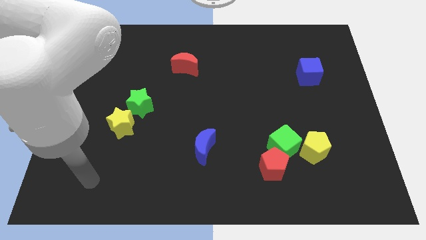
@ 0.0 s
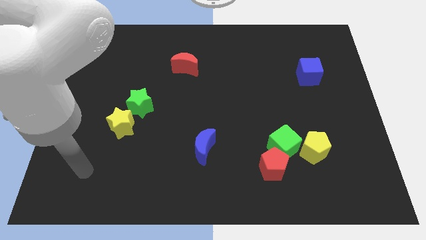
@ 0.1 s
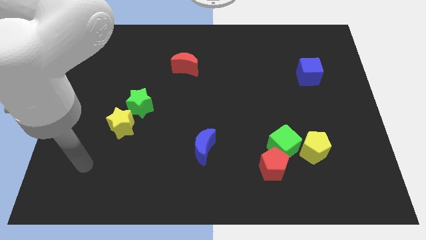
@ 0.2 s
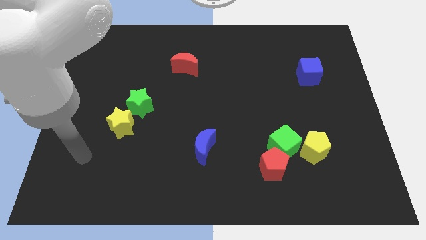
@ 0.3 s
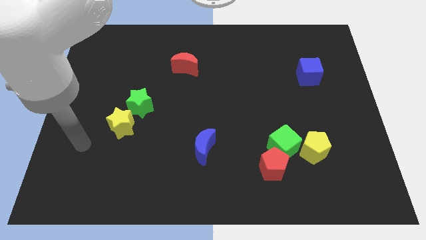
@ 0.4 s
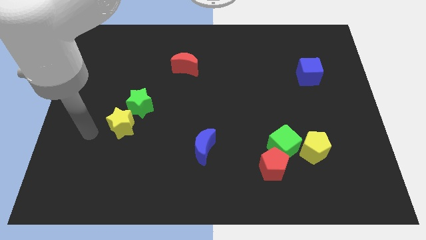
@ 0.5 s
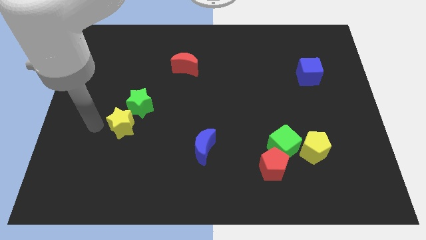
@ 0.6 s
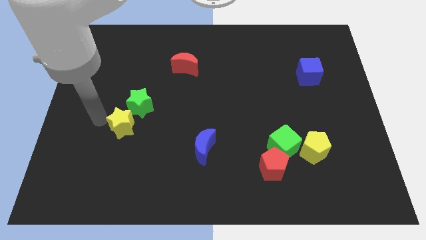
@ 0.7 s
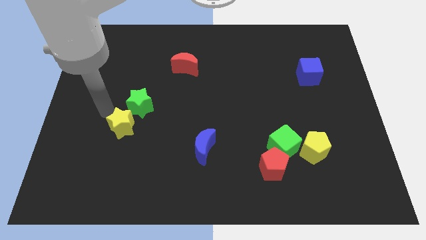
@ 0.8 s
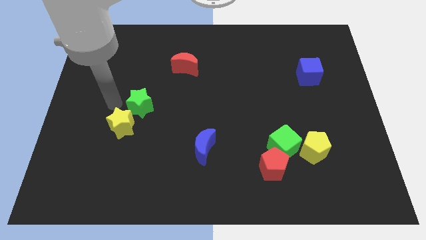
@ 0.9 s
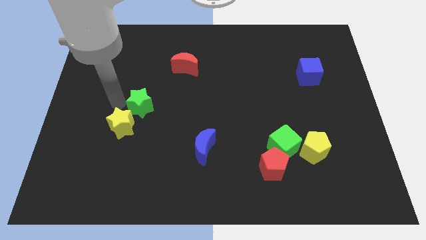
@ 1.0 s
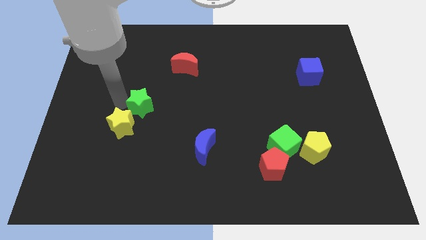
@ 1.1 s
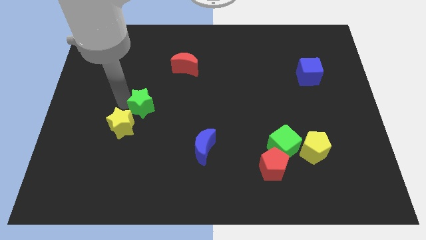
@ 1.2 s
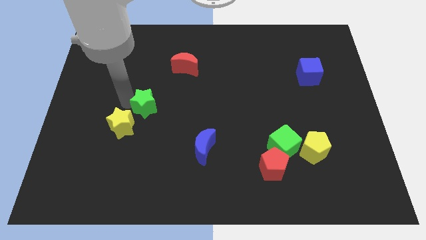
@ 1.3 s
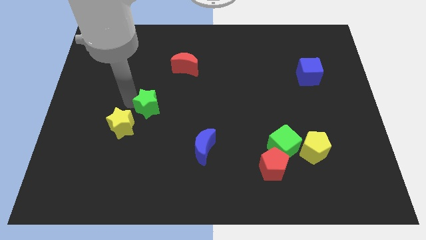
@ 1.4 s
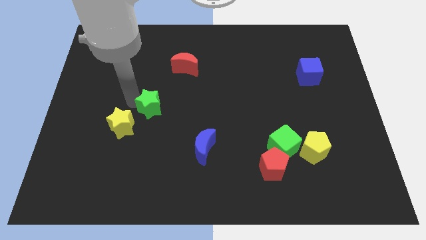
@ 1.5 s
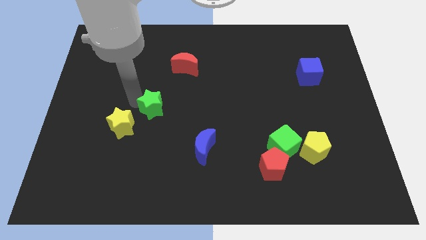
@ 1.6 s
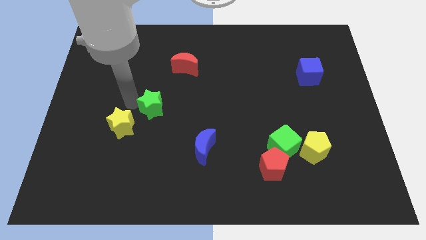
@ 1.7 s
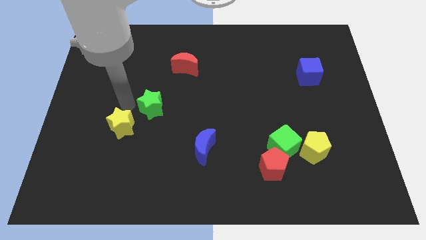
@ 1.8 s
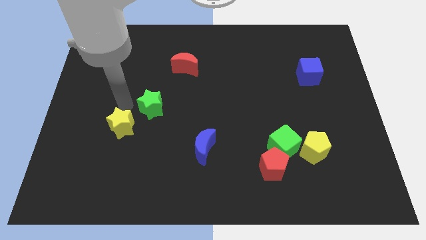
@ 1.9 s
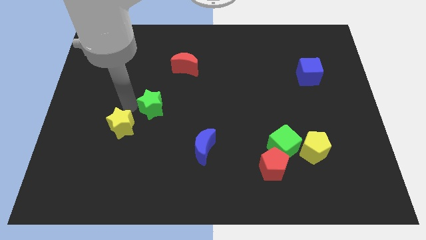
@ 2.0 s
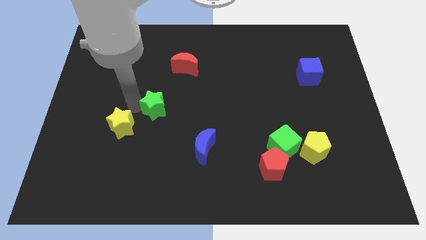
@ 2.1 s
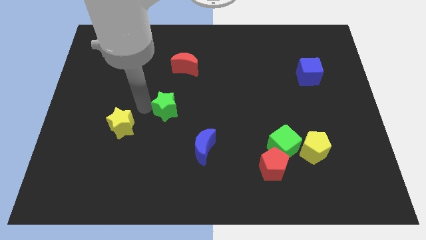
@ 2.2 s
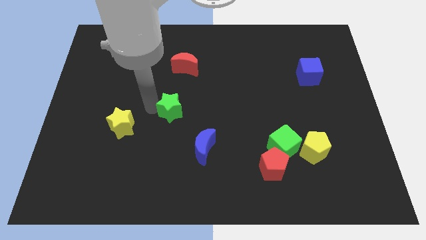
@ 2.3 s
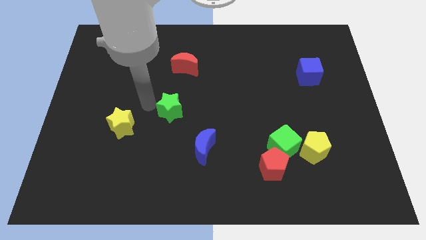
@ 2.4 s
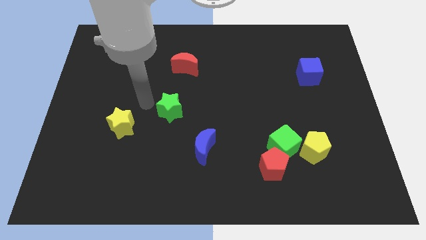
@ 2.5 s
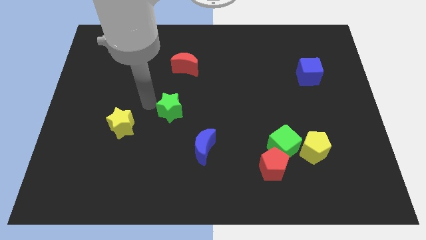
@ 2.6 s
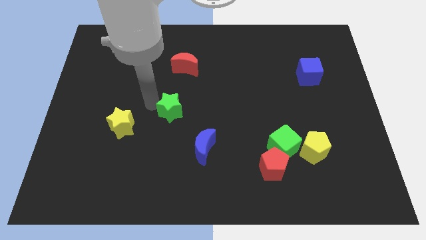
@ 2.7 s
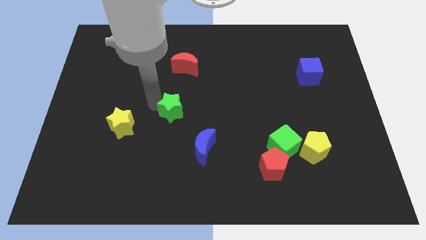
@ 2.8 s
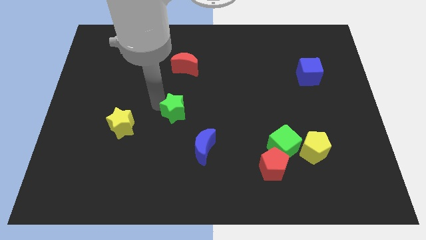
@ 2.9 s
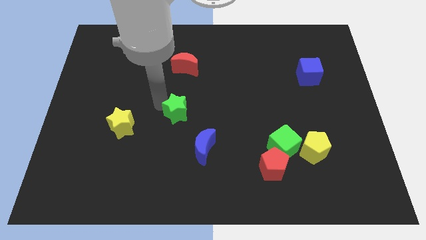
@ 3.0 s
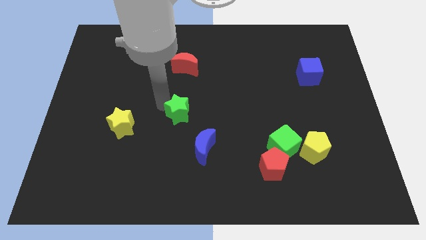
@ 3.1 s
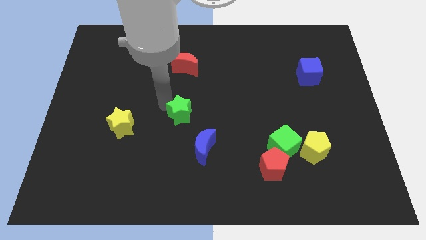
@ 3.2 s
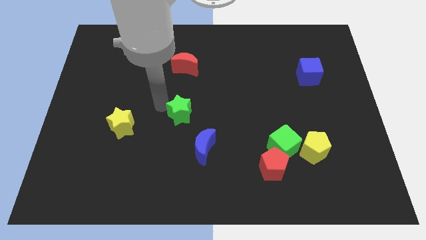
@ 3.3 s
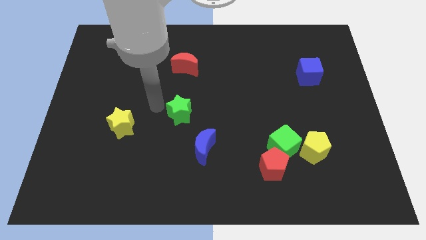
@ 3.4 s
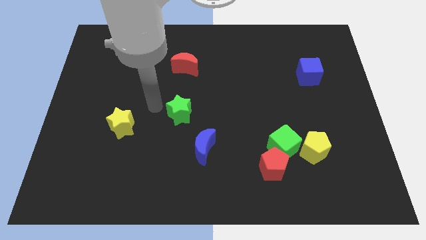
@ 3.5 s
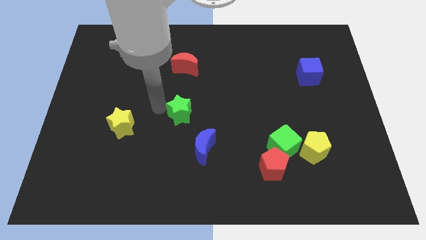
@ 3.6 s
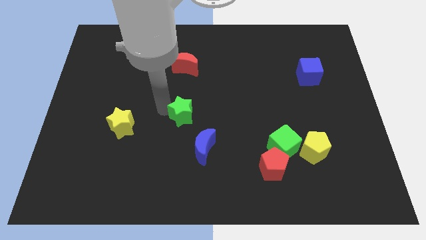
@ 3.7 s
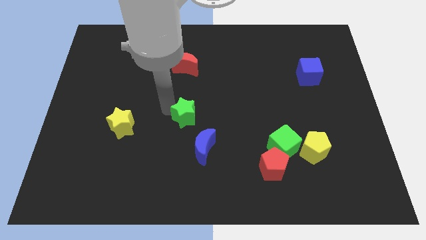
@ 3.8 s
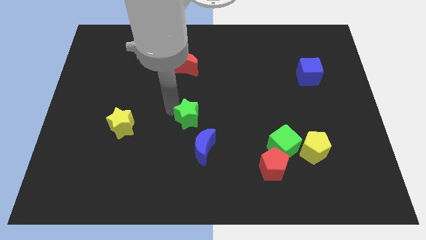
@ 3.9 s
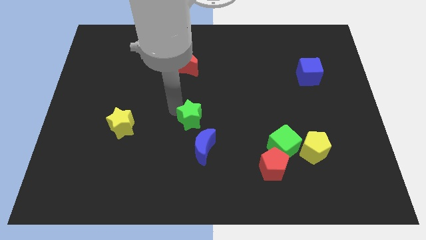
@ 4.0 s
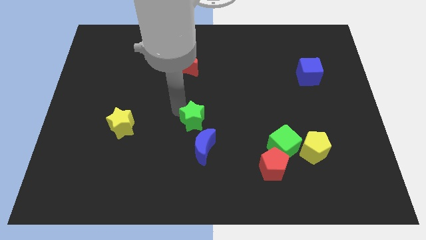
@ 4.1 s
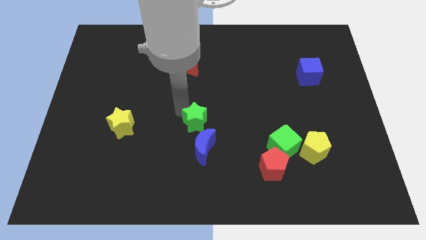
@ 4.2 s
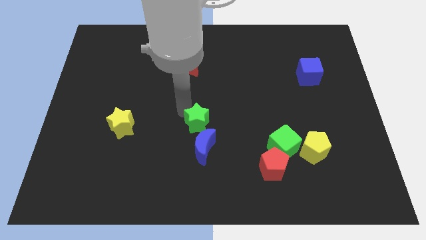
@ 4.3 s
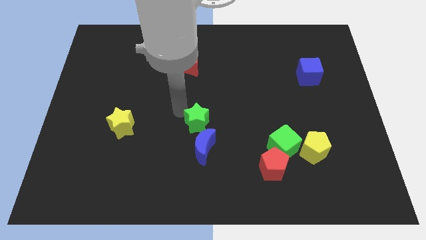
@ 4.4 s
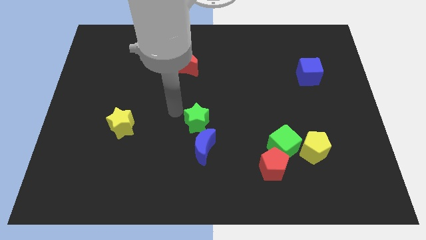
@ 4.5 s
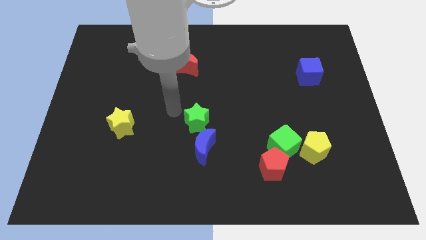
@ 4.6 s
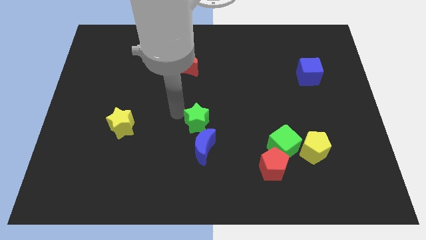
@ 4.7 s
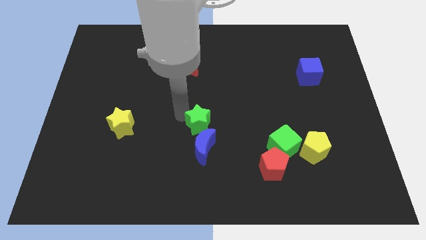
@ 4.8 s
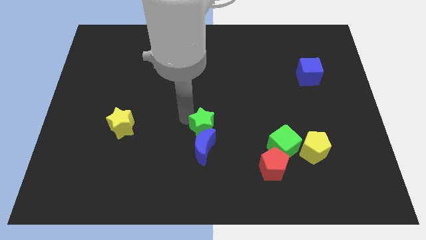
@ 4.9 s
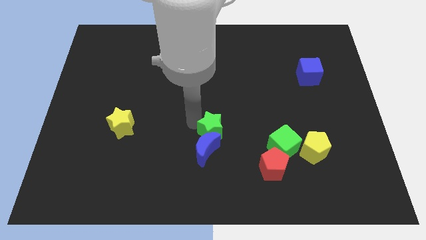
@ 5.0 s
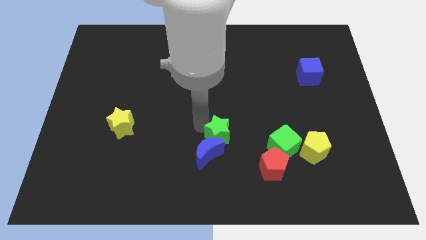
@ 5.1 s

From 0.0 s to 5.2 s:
move the green star just left of the green cube

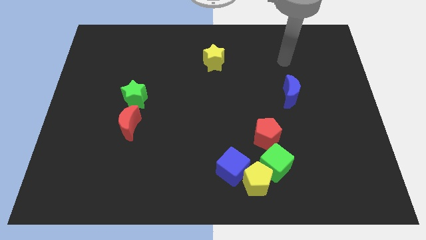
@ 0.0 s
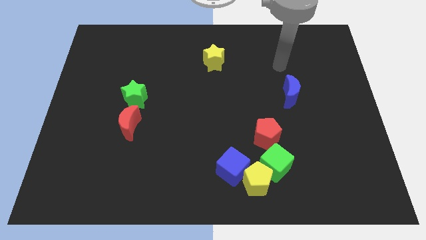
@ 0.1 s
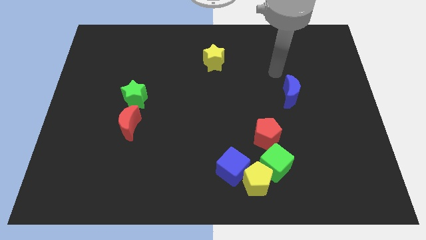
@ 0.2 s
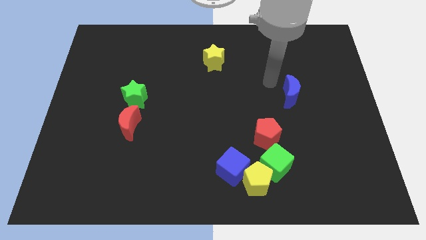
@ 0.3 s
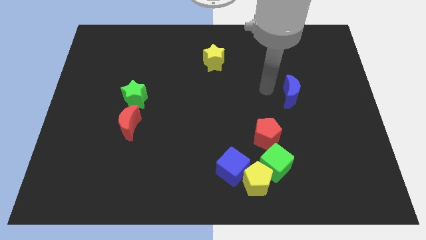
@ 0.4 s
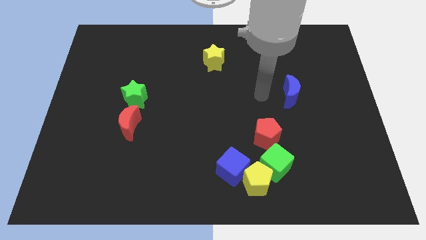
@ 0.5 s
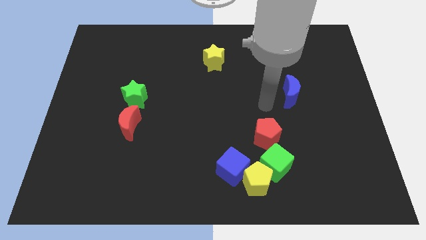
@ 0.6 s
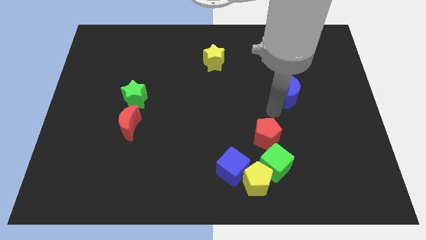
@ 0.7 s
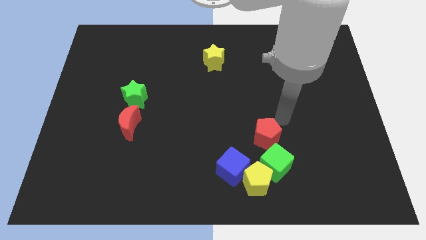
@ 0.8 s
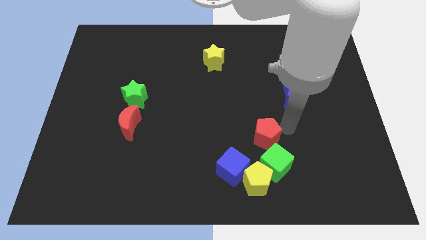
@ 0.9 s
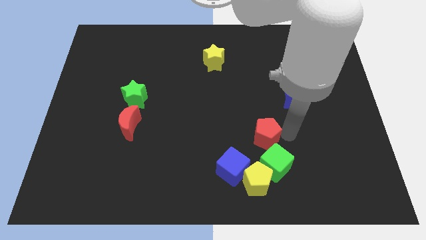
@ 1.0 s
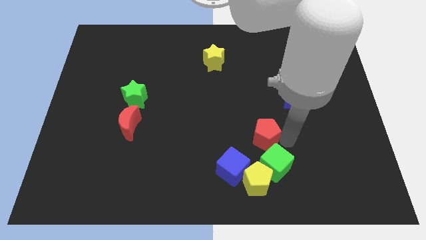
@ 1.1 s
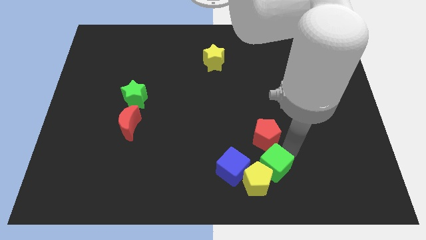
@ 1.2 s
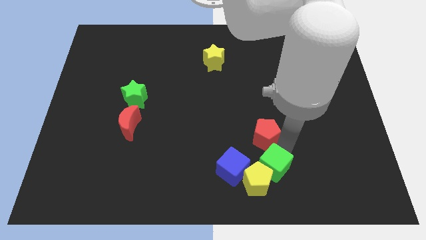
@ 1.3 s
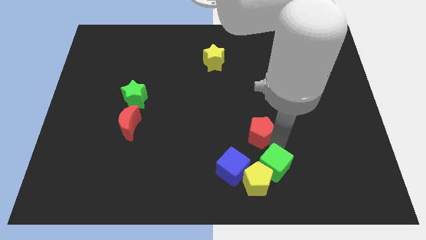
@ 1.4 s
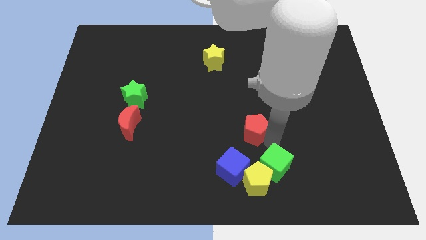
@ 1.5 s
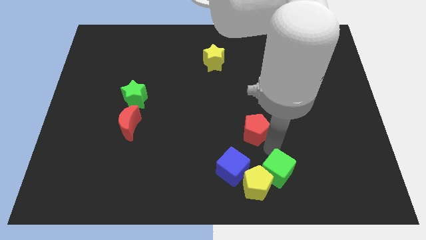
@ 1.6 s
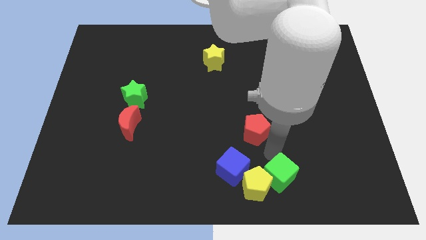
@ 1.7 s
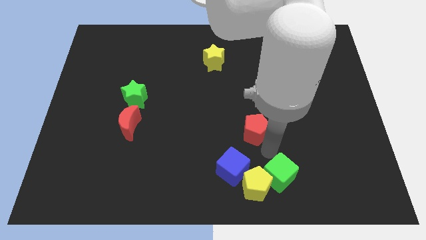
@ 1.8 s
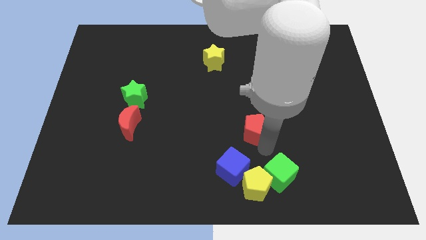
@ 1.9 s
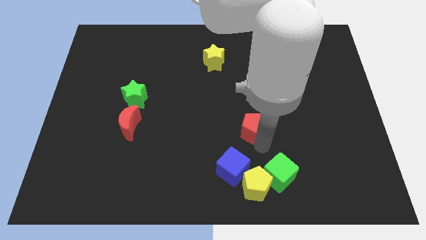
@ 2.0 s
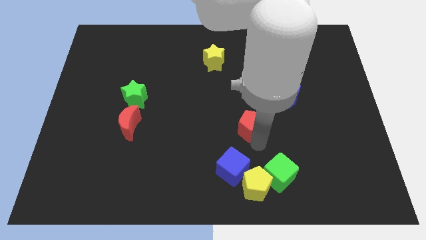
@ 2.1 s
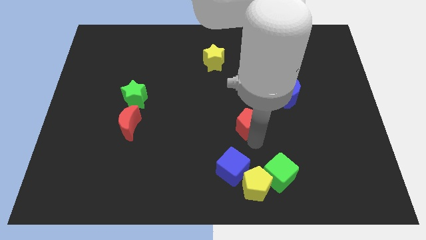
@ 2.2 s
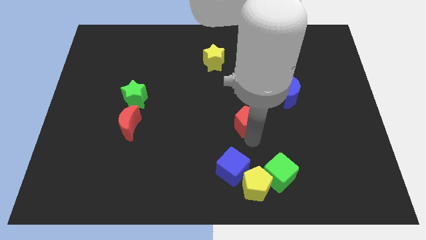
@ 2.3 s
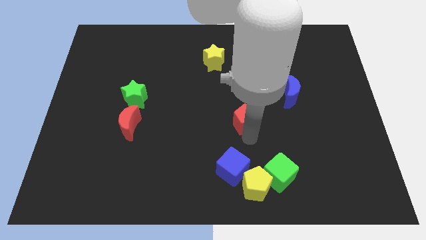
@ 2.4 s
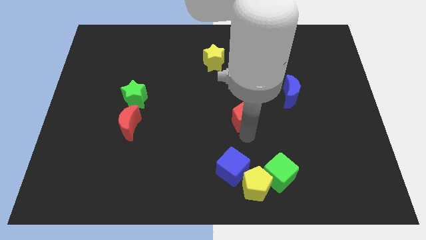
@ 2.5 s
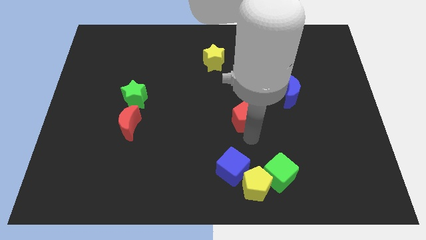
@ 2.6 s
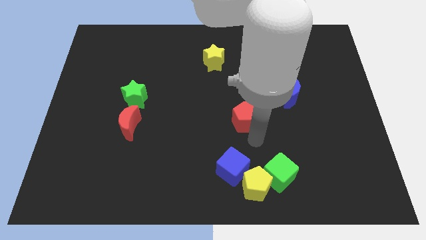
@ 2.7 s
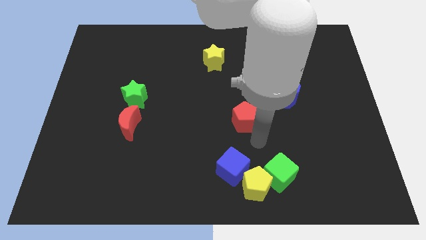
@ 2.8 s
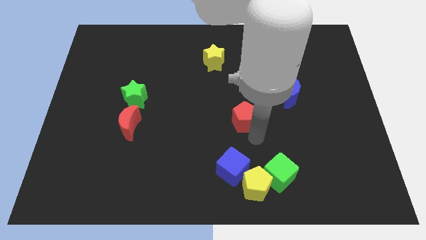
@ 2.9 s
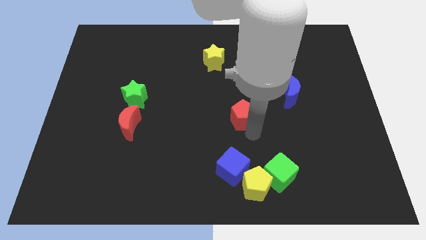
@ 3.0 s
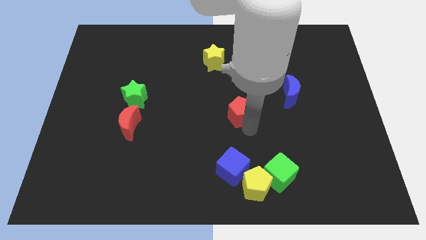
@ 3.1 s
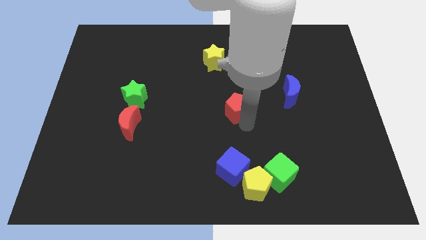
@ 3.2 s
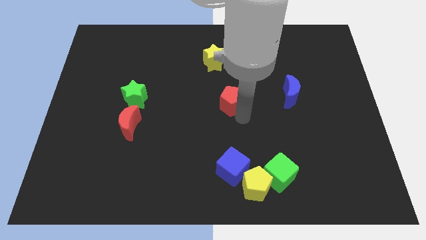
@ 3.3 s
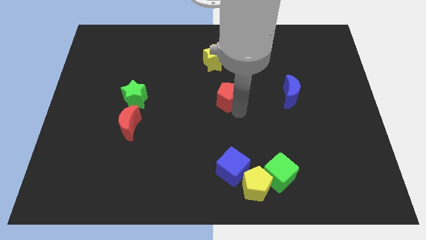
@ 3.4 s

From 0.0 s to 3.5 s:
push the red pentagon to the bottom of the yellow star
